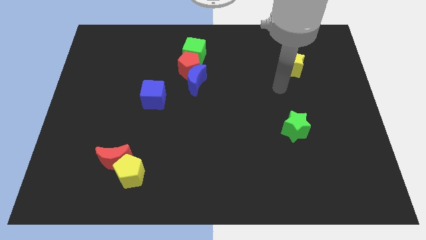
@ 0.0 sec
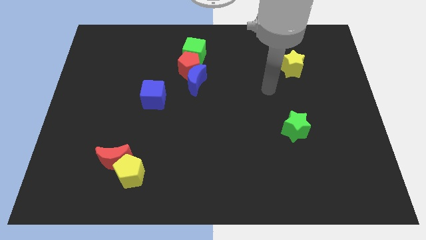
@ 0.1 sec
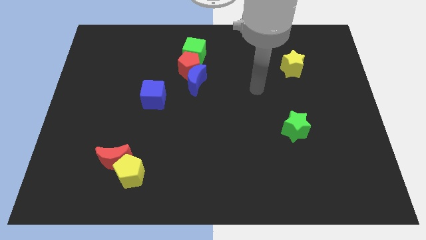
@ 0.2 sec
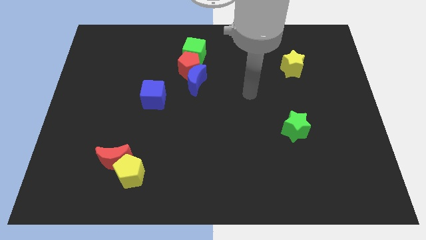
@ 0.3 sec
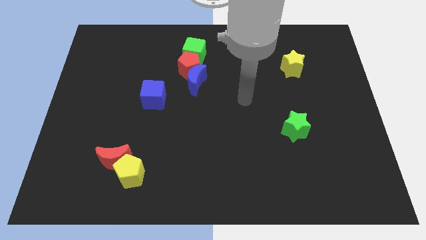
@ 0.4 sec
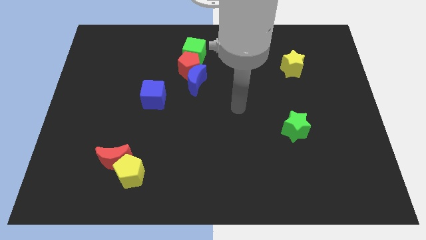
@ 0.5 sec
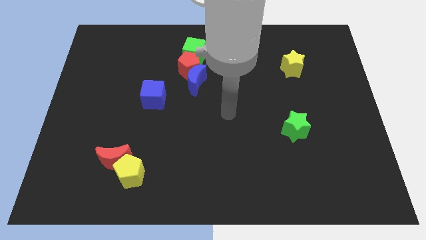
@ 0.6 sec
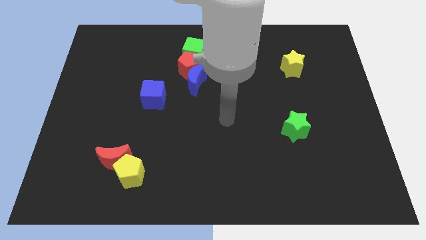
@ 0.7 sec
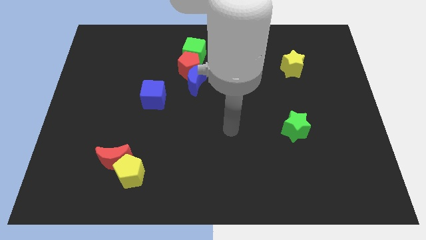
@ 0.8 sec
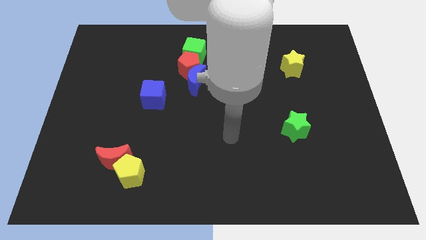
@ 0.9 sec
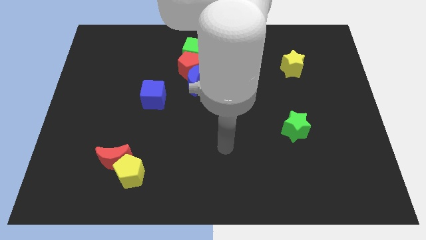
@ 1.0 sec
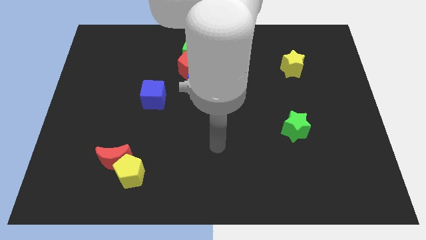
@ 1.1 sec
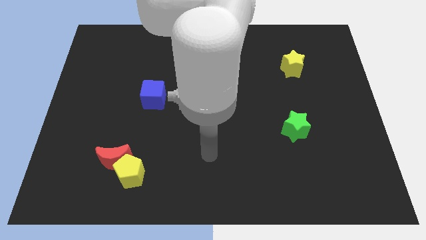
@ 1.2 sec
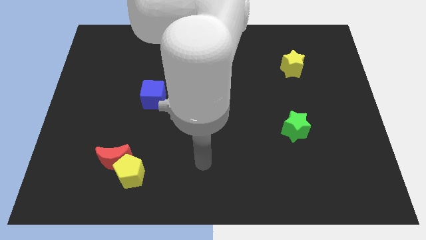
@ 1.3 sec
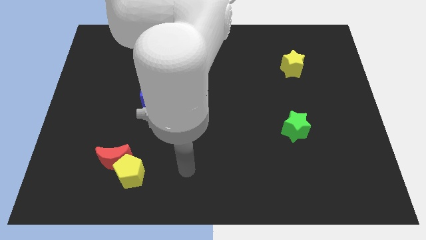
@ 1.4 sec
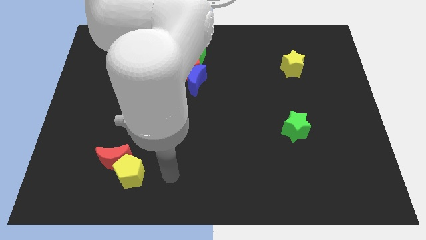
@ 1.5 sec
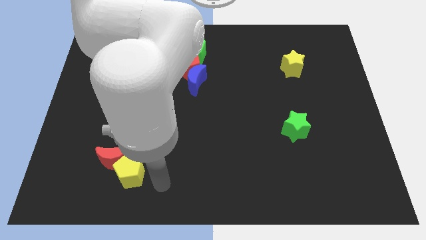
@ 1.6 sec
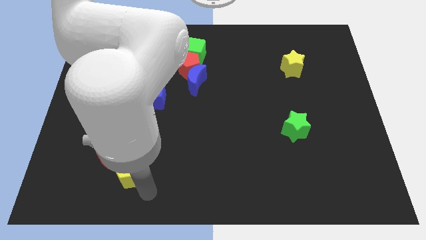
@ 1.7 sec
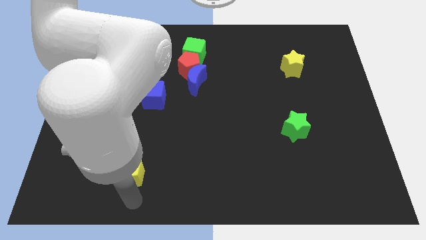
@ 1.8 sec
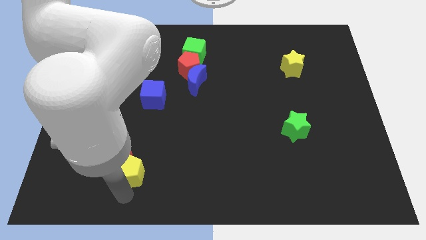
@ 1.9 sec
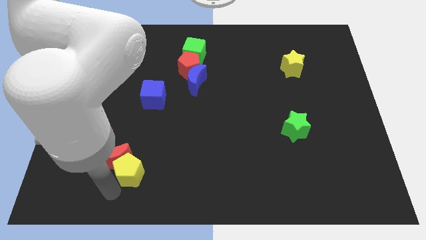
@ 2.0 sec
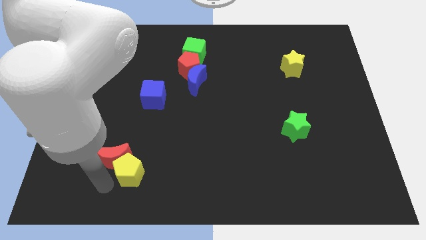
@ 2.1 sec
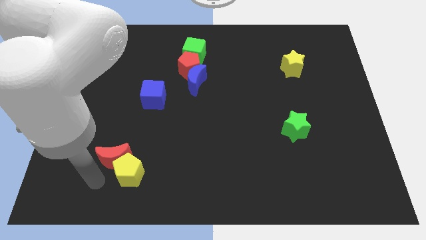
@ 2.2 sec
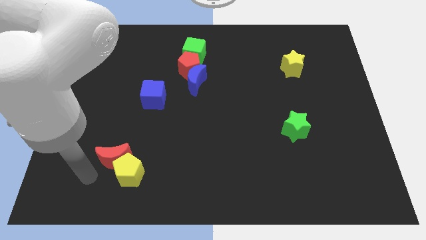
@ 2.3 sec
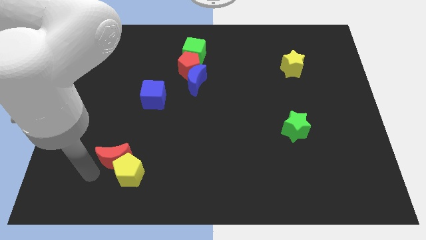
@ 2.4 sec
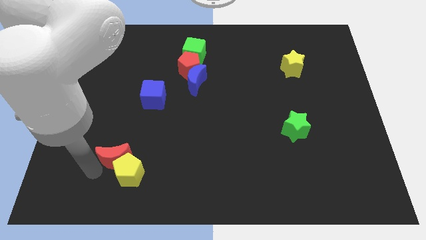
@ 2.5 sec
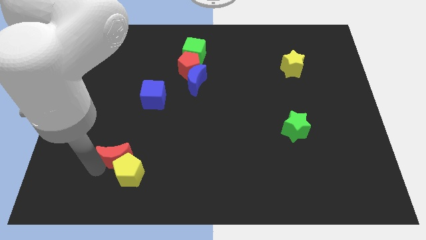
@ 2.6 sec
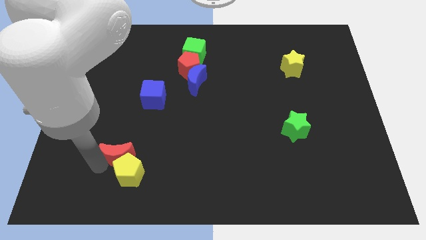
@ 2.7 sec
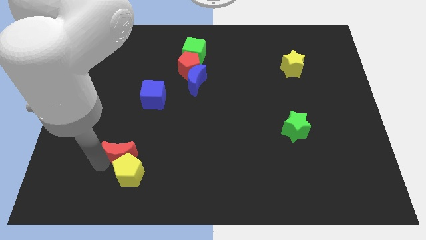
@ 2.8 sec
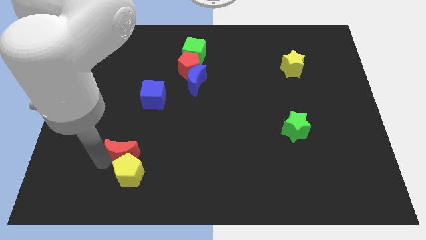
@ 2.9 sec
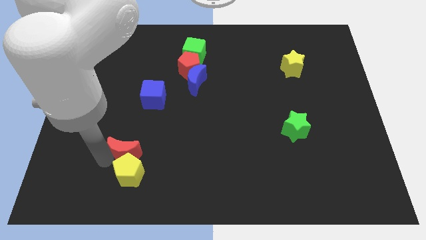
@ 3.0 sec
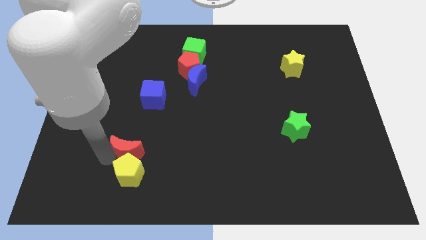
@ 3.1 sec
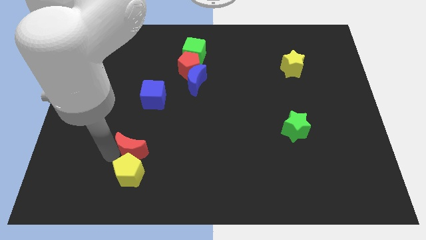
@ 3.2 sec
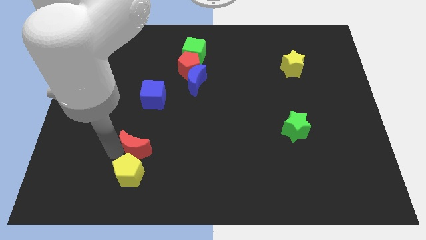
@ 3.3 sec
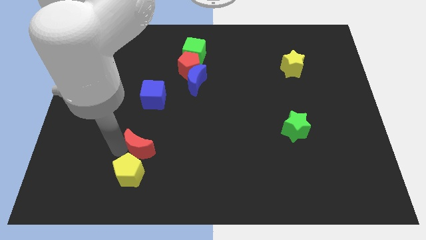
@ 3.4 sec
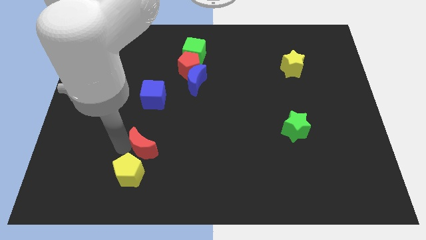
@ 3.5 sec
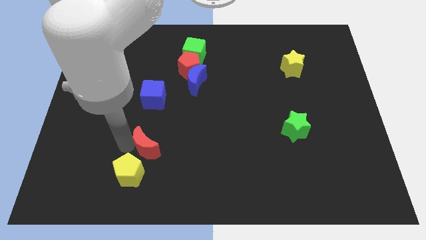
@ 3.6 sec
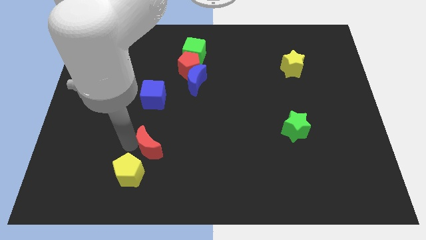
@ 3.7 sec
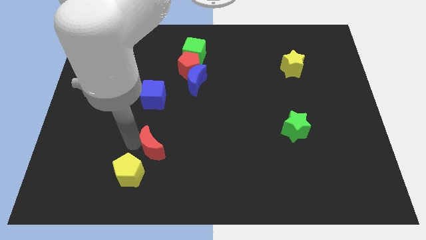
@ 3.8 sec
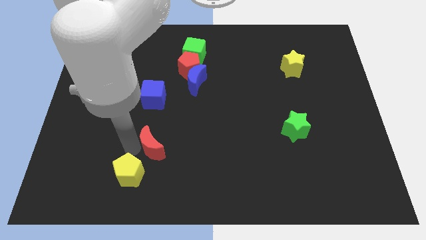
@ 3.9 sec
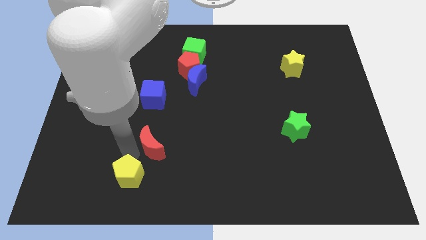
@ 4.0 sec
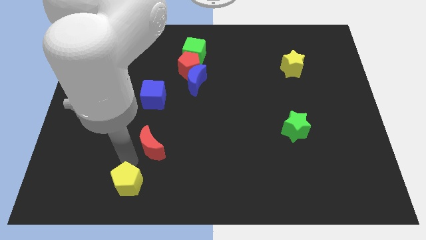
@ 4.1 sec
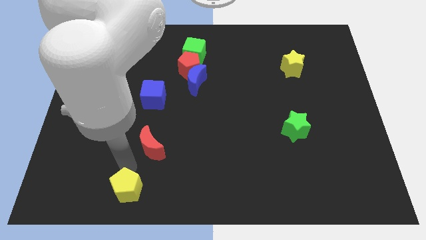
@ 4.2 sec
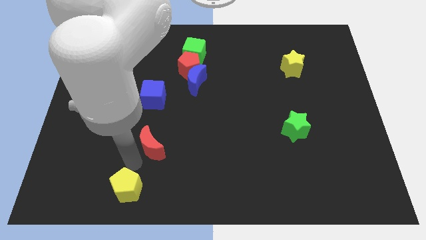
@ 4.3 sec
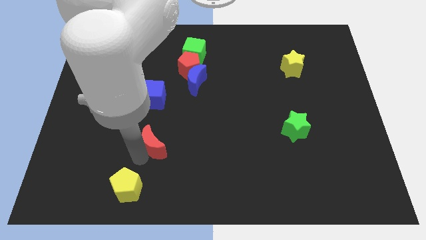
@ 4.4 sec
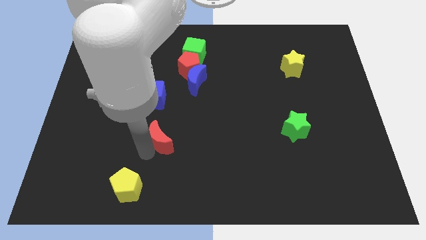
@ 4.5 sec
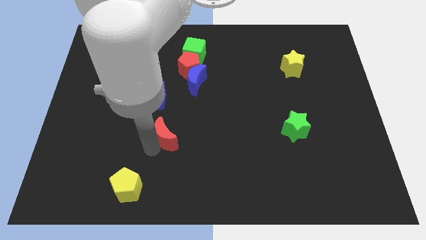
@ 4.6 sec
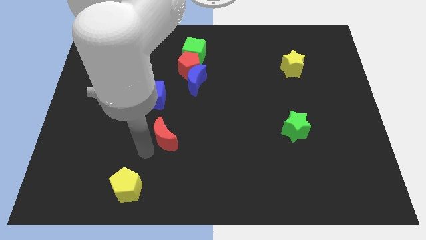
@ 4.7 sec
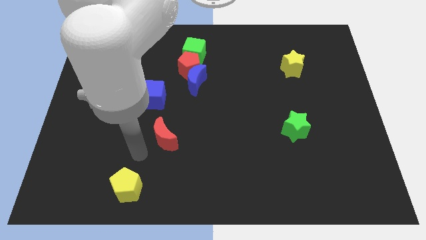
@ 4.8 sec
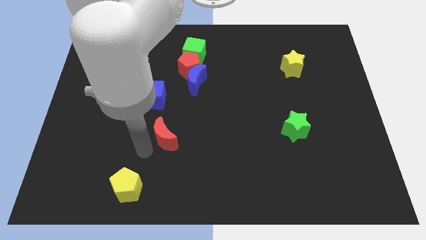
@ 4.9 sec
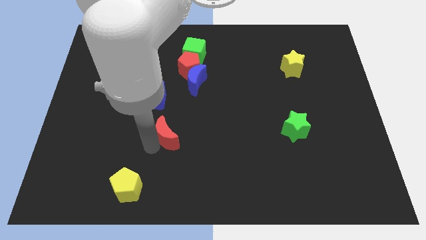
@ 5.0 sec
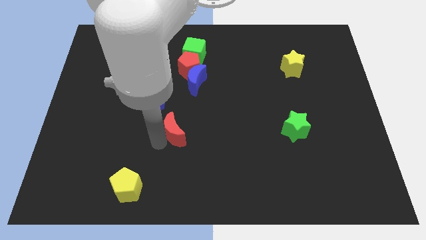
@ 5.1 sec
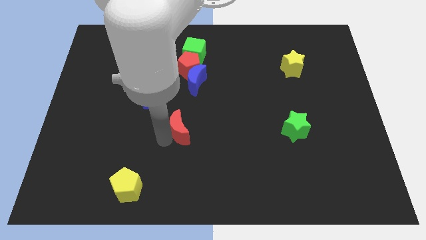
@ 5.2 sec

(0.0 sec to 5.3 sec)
slide the red moon to the middle of the board

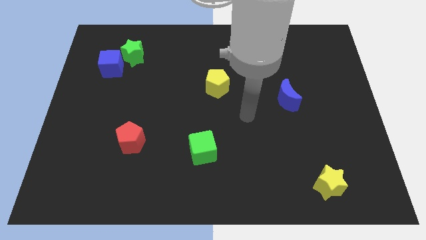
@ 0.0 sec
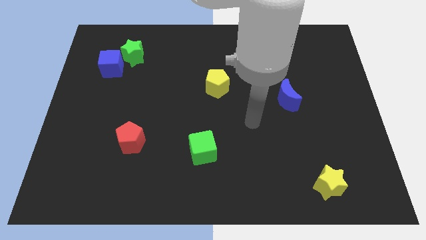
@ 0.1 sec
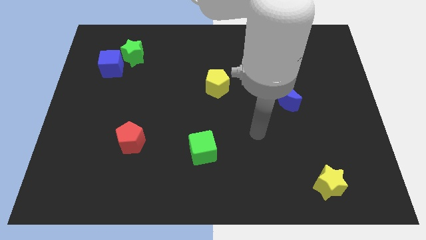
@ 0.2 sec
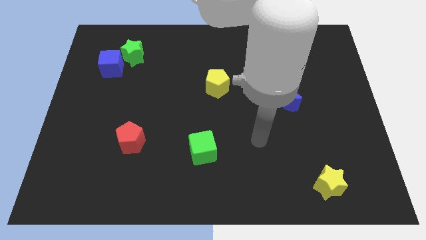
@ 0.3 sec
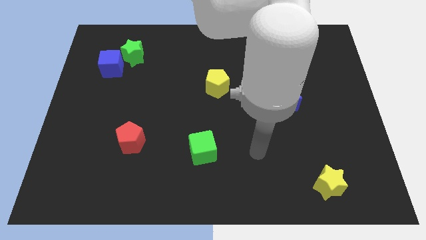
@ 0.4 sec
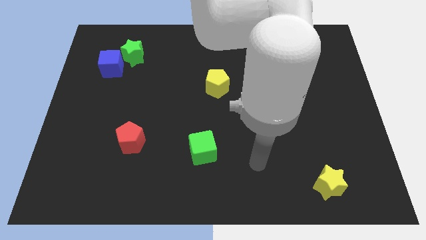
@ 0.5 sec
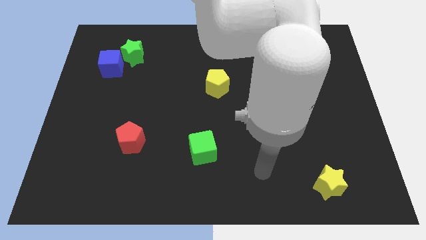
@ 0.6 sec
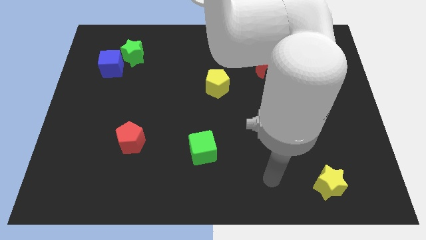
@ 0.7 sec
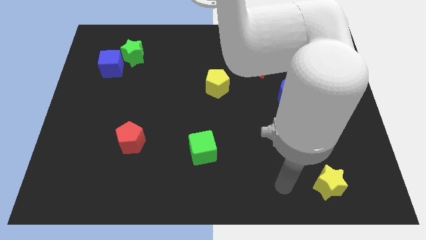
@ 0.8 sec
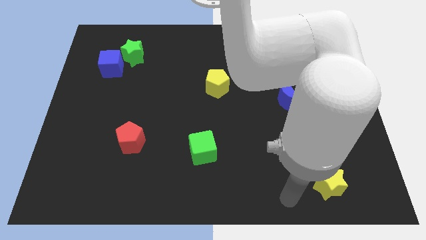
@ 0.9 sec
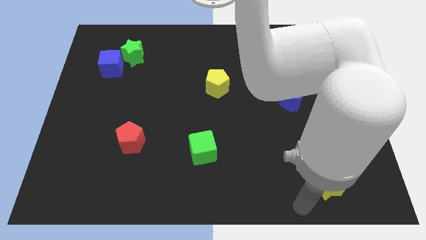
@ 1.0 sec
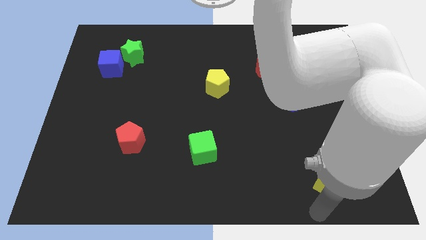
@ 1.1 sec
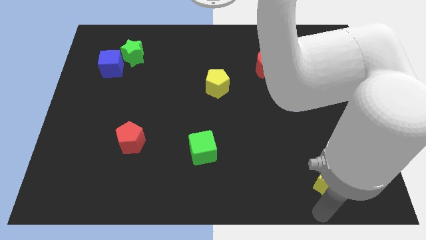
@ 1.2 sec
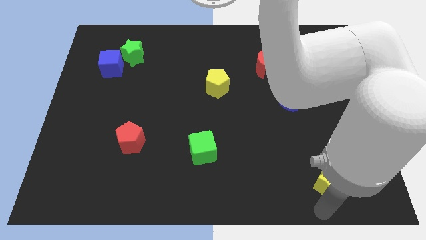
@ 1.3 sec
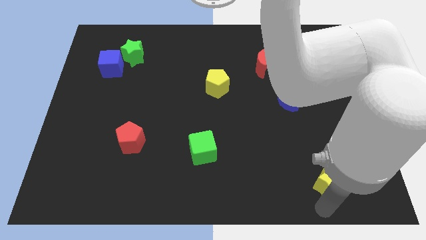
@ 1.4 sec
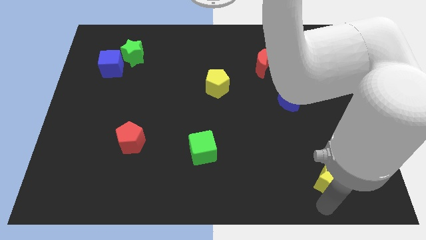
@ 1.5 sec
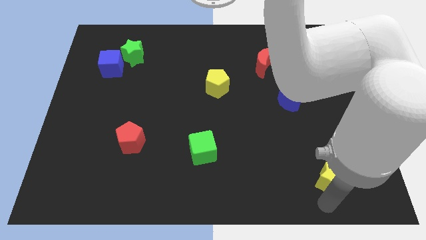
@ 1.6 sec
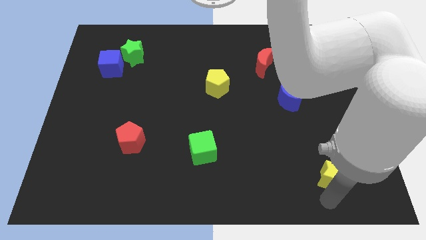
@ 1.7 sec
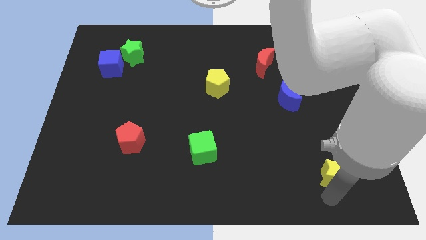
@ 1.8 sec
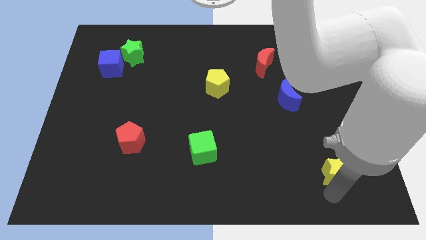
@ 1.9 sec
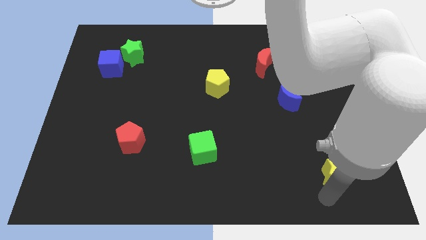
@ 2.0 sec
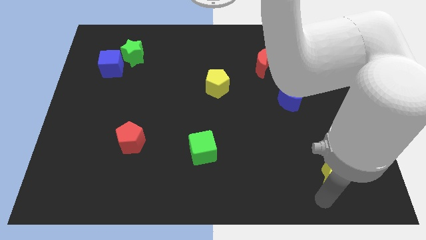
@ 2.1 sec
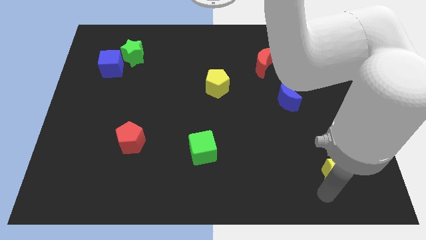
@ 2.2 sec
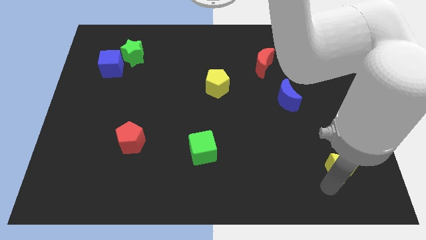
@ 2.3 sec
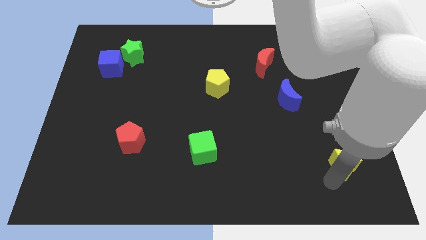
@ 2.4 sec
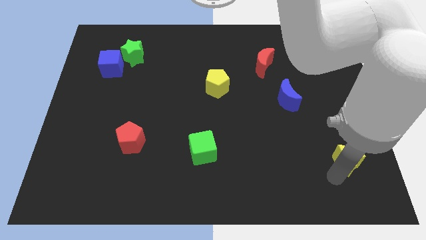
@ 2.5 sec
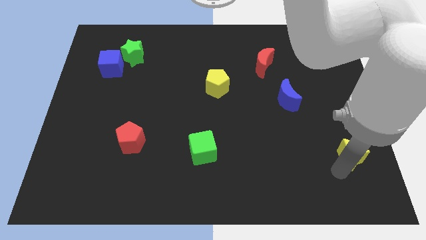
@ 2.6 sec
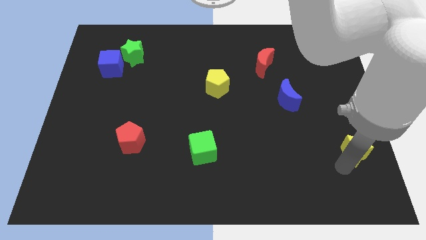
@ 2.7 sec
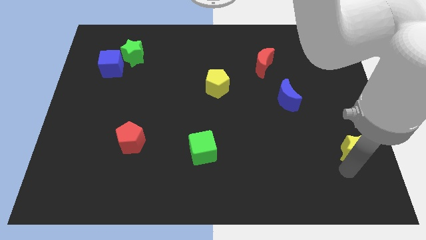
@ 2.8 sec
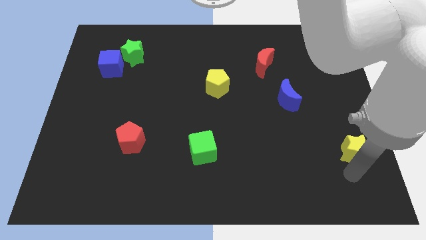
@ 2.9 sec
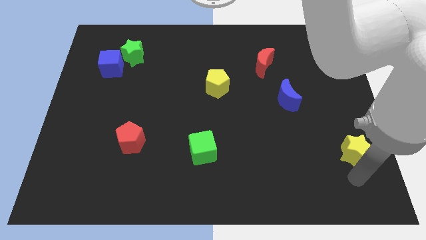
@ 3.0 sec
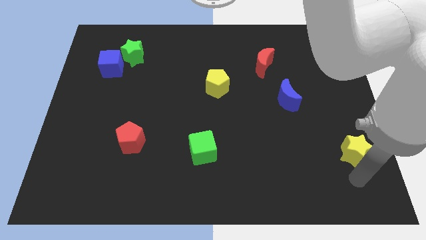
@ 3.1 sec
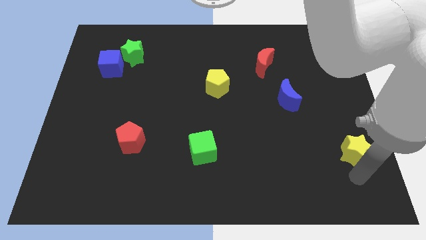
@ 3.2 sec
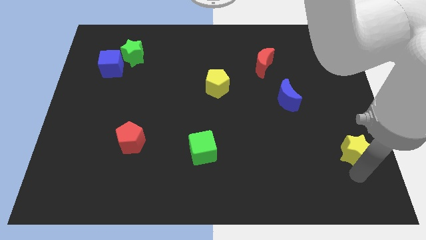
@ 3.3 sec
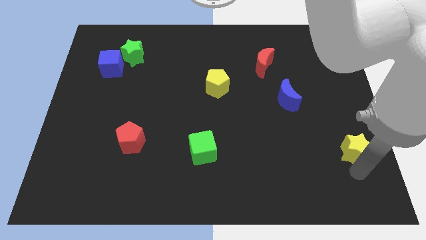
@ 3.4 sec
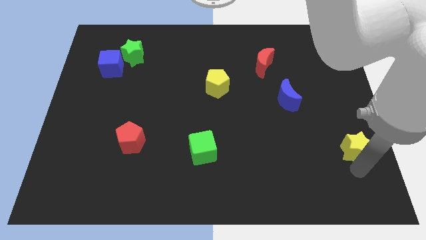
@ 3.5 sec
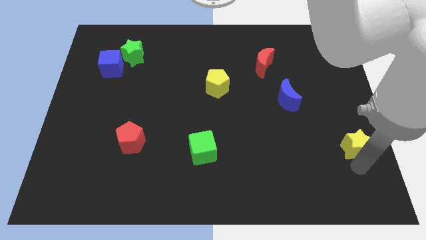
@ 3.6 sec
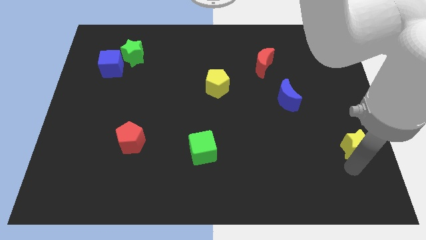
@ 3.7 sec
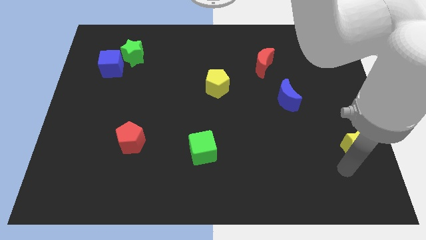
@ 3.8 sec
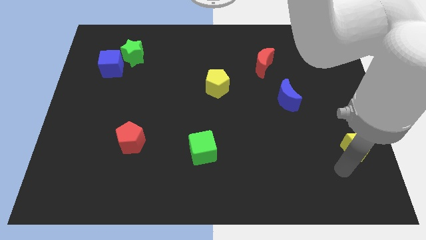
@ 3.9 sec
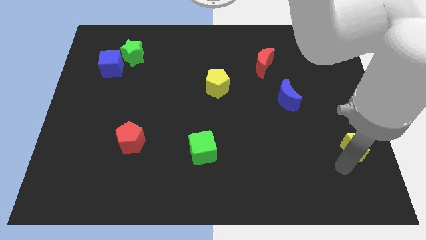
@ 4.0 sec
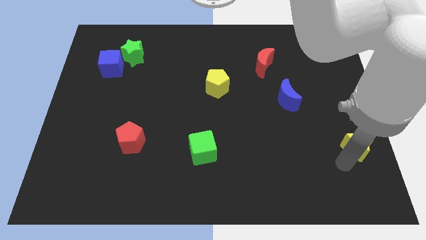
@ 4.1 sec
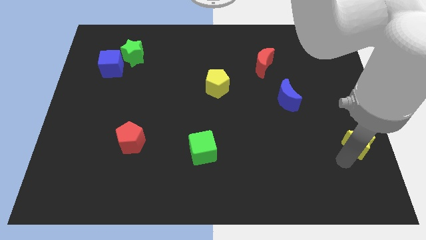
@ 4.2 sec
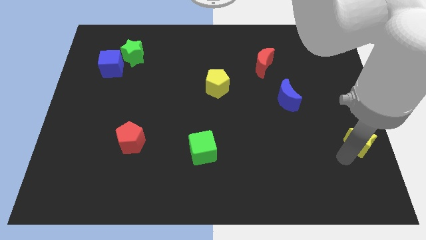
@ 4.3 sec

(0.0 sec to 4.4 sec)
move the yellow star to the right side
